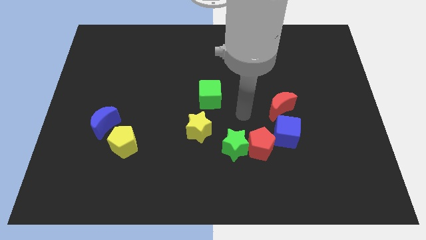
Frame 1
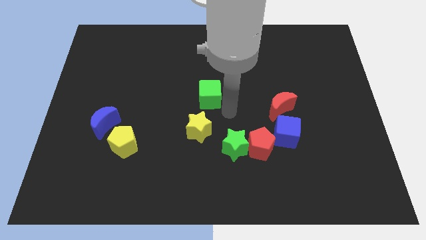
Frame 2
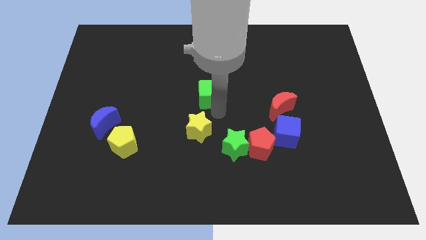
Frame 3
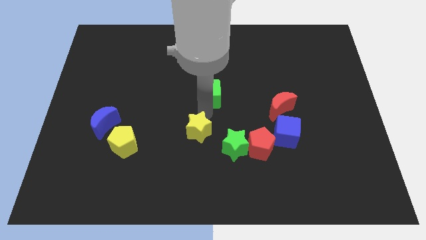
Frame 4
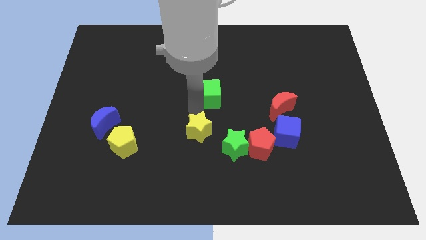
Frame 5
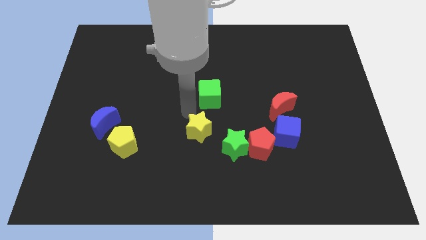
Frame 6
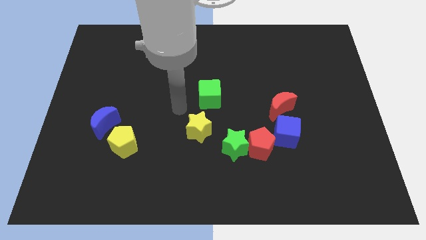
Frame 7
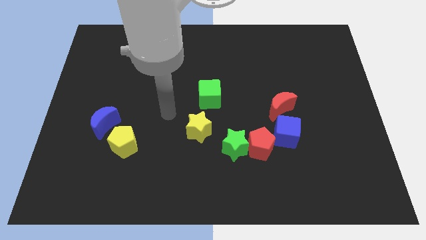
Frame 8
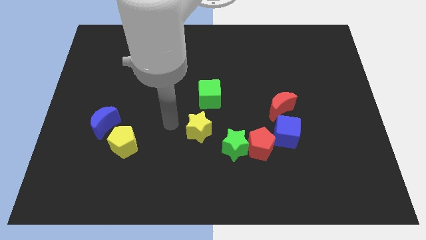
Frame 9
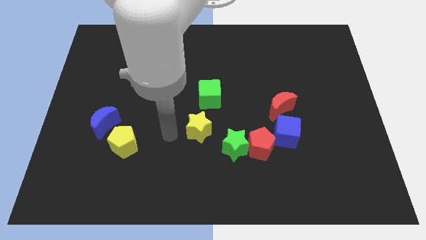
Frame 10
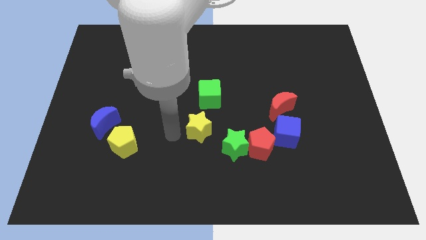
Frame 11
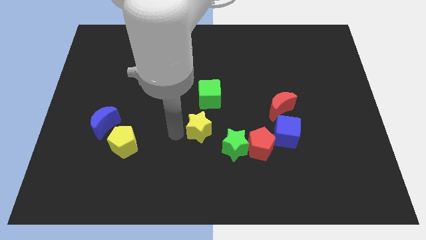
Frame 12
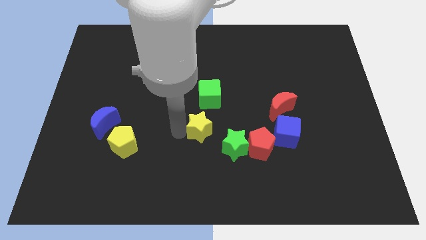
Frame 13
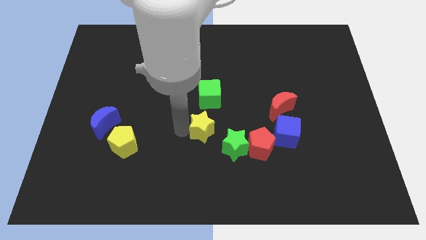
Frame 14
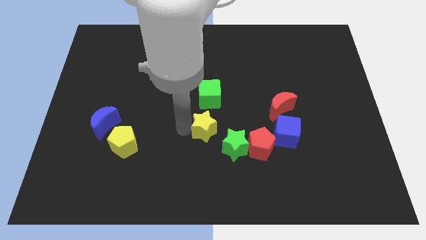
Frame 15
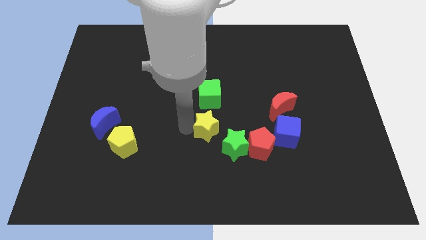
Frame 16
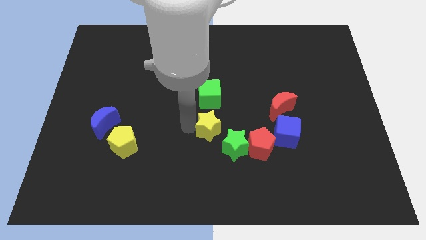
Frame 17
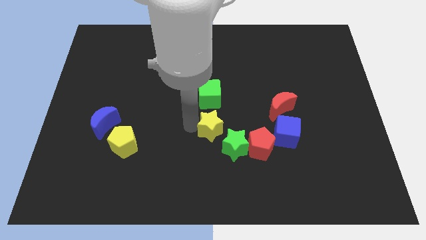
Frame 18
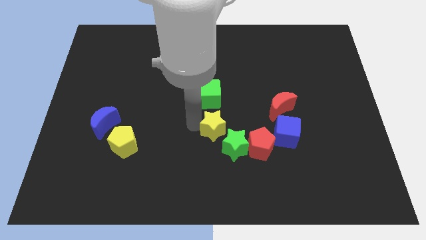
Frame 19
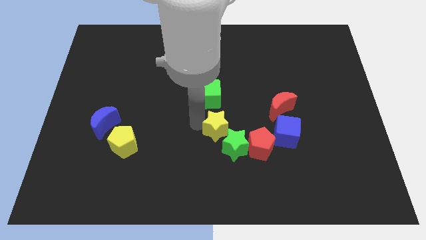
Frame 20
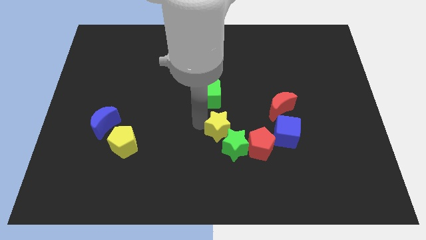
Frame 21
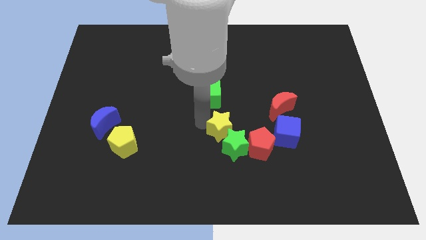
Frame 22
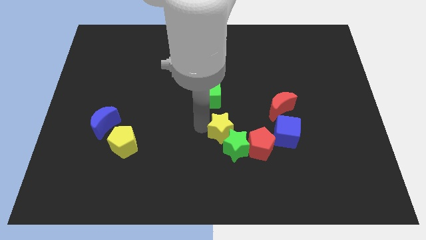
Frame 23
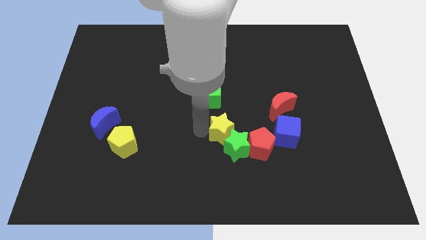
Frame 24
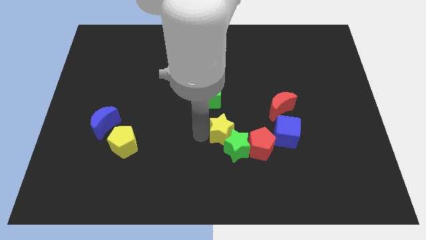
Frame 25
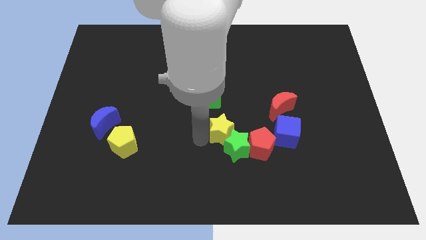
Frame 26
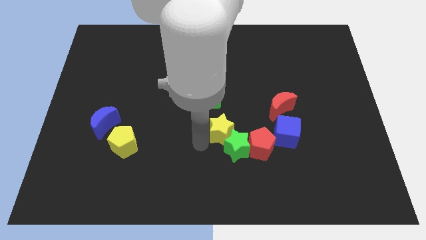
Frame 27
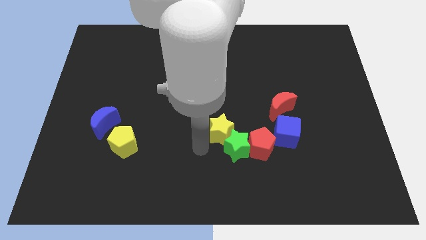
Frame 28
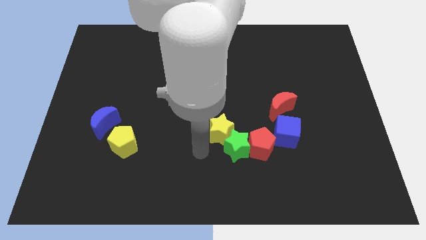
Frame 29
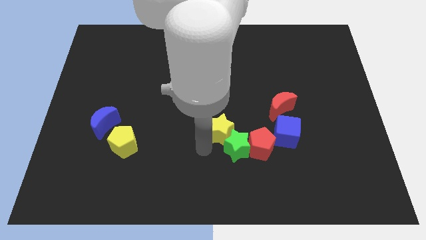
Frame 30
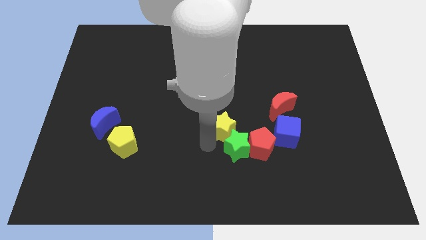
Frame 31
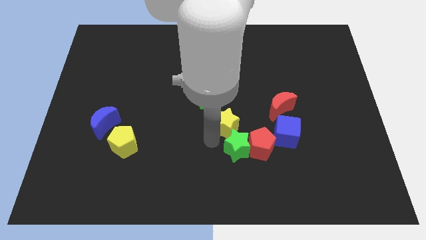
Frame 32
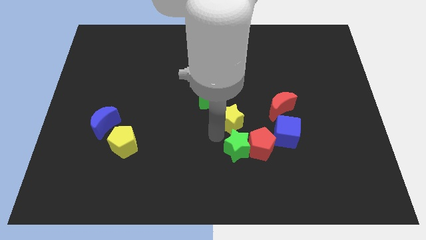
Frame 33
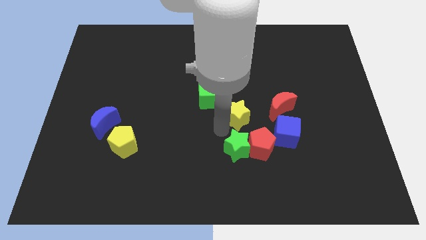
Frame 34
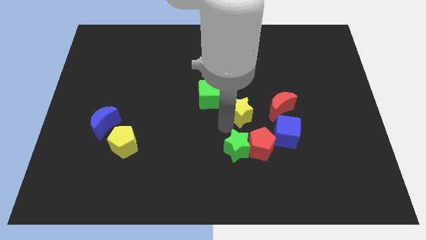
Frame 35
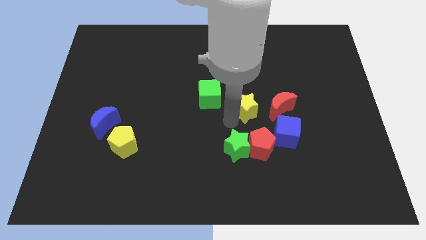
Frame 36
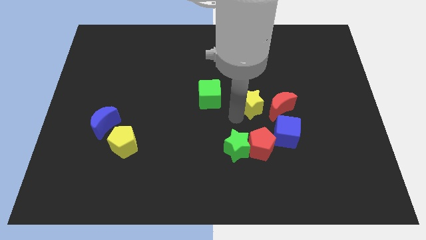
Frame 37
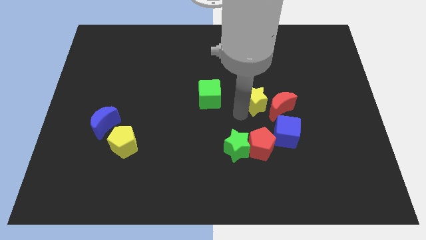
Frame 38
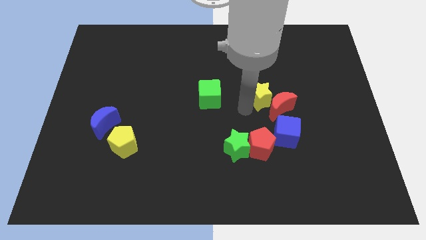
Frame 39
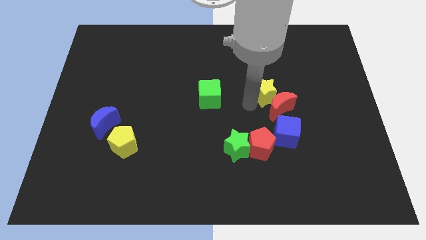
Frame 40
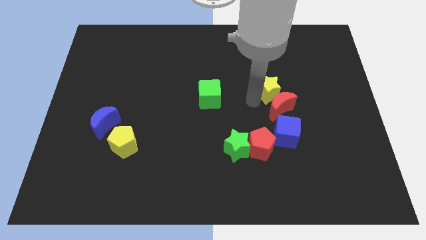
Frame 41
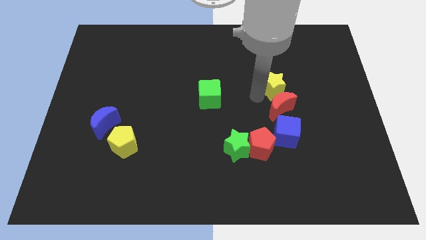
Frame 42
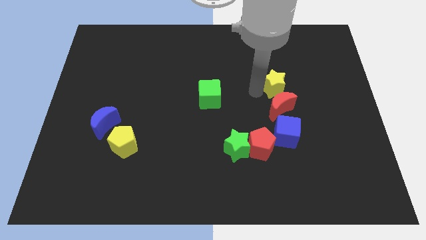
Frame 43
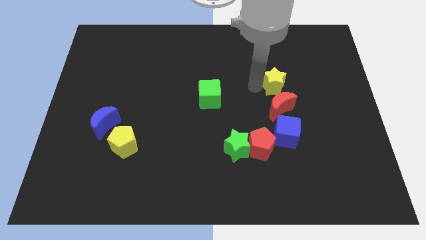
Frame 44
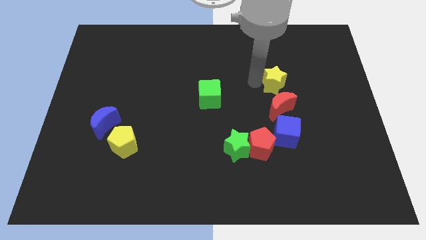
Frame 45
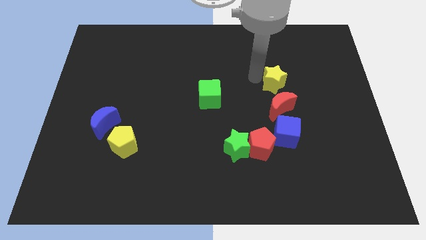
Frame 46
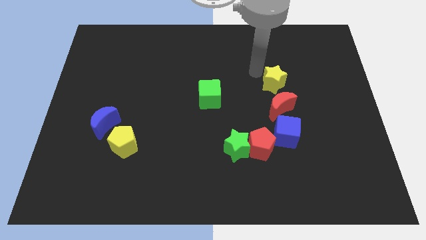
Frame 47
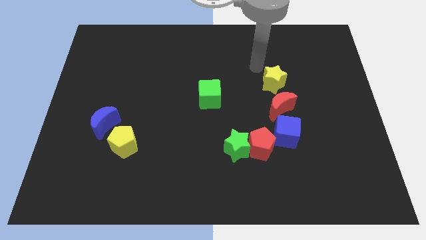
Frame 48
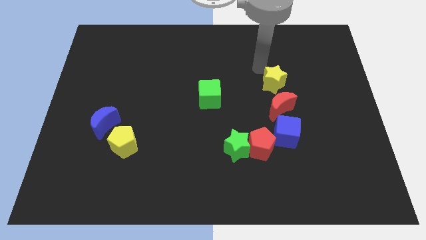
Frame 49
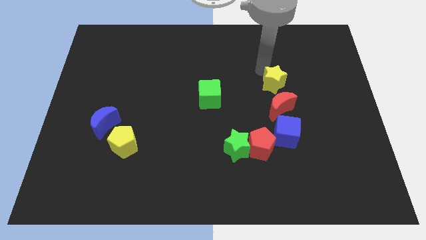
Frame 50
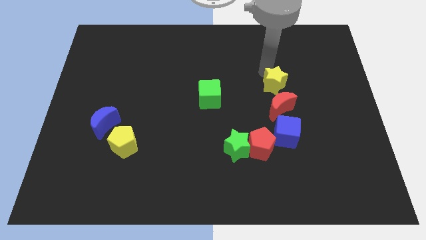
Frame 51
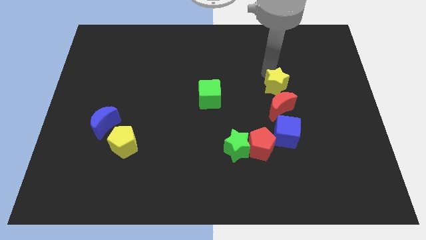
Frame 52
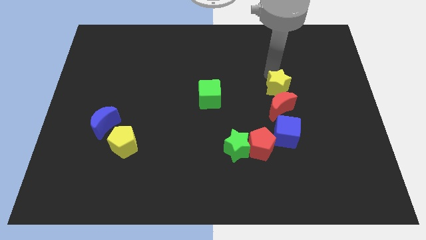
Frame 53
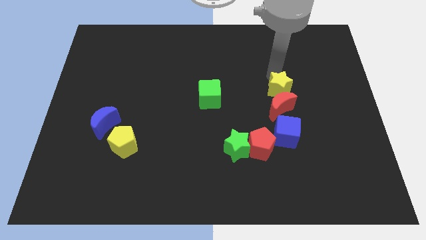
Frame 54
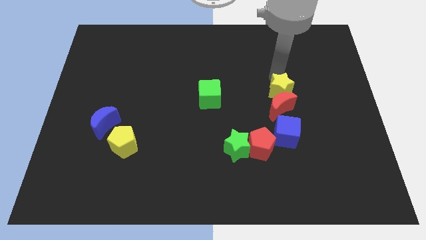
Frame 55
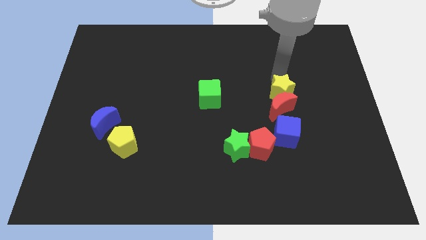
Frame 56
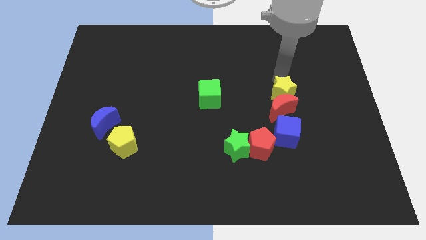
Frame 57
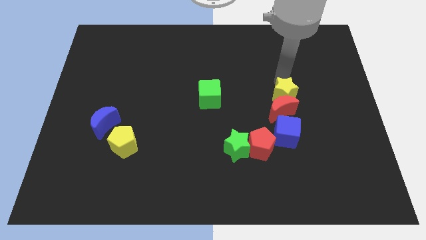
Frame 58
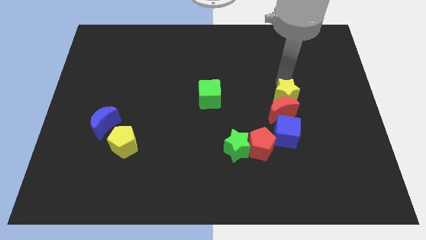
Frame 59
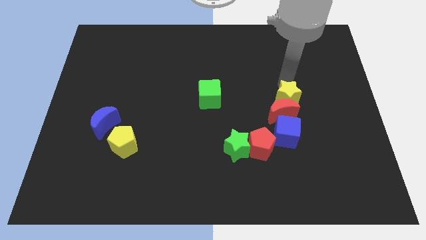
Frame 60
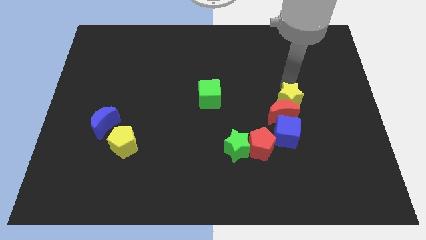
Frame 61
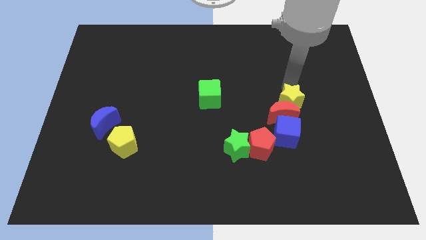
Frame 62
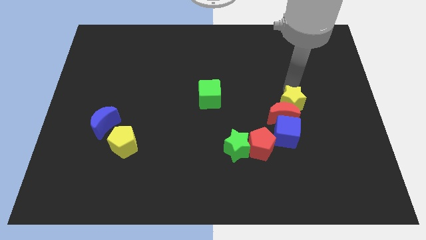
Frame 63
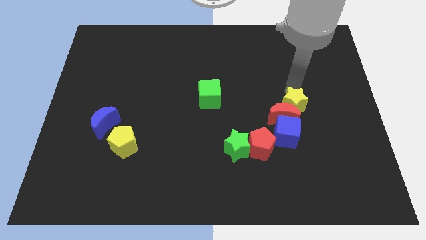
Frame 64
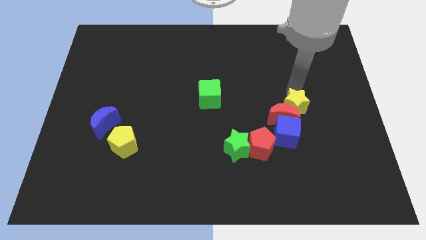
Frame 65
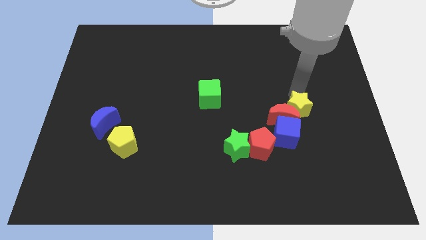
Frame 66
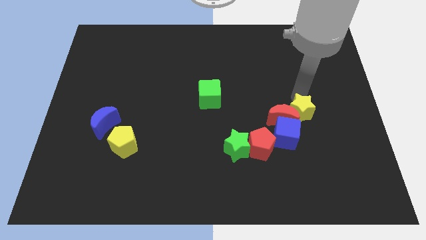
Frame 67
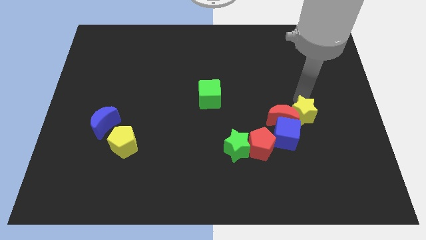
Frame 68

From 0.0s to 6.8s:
put the yellow star to the bottom right of the red moon
